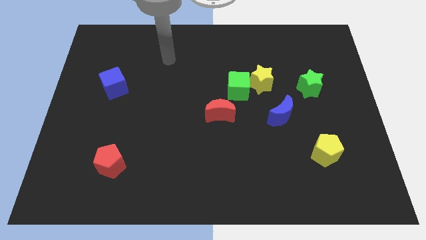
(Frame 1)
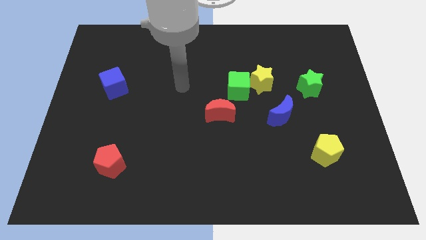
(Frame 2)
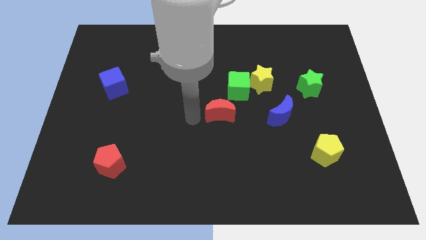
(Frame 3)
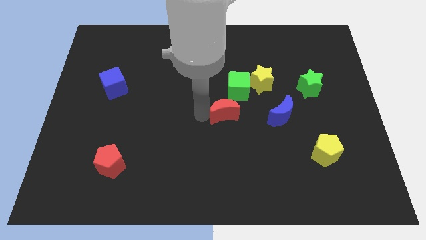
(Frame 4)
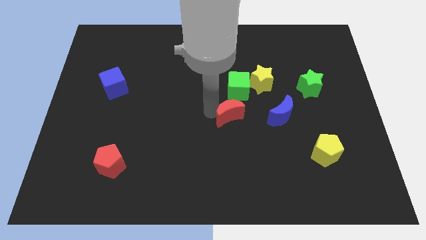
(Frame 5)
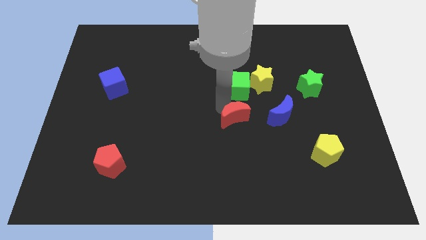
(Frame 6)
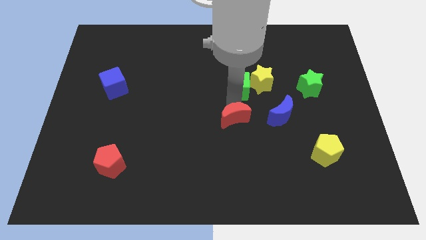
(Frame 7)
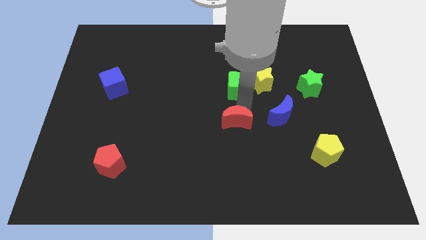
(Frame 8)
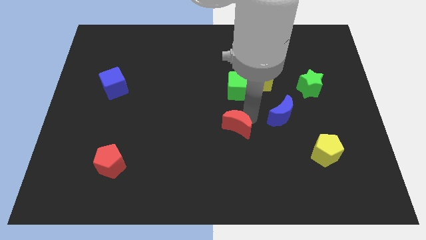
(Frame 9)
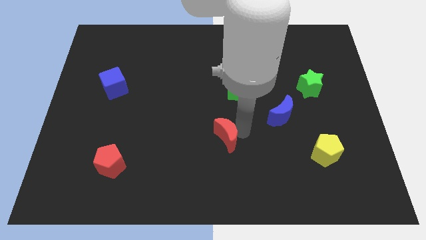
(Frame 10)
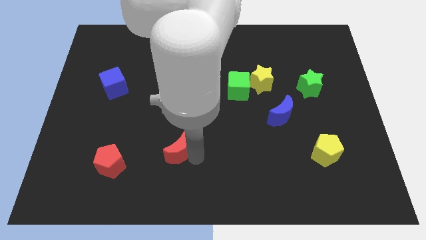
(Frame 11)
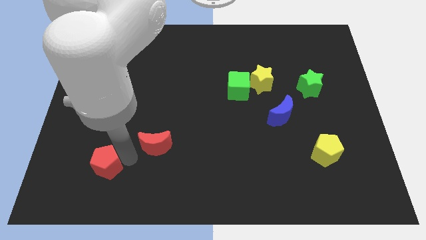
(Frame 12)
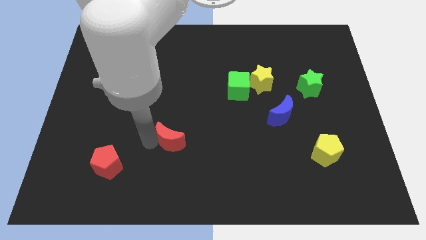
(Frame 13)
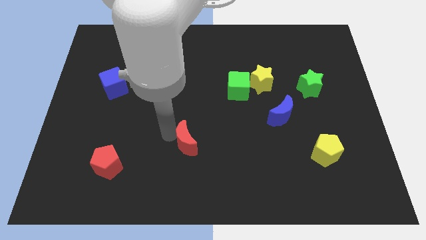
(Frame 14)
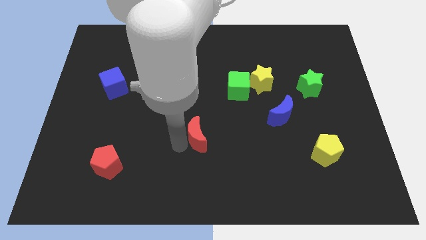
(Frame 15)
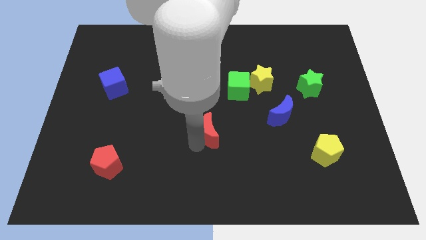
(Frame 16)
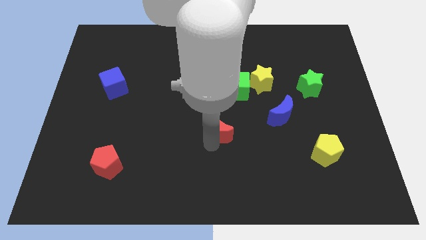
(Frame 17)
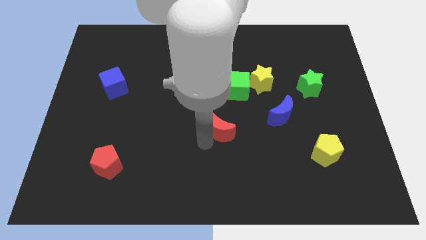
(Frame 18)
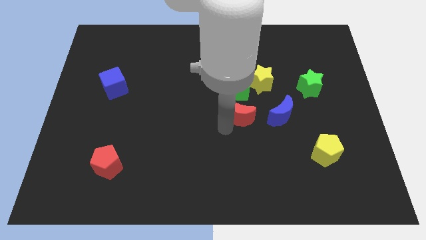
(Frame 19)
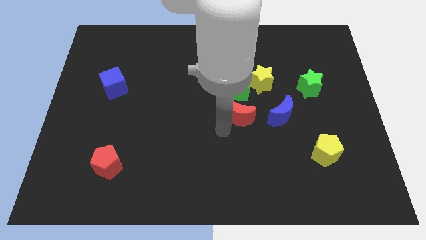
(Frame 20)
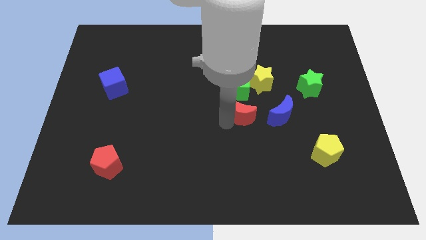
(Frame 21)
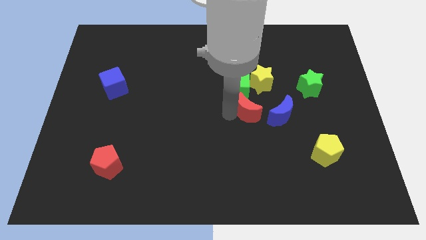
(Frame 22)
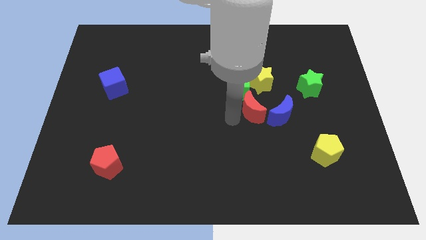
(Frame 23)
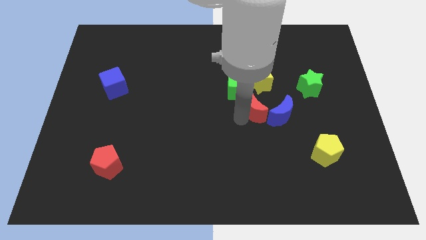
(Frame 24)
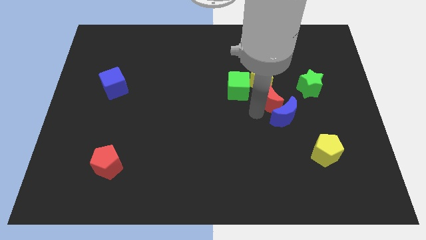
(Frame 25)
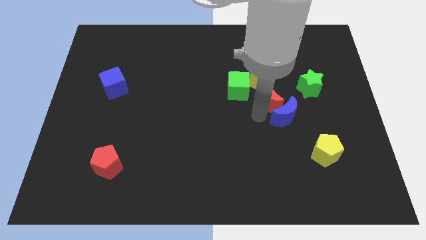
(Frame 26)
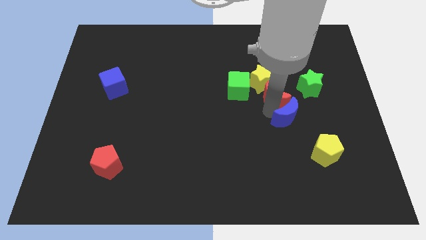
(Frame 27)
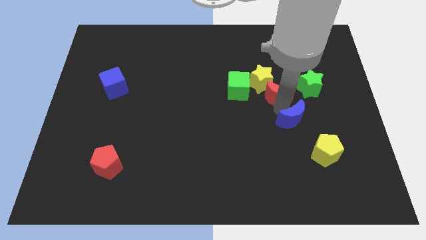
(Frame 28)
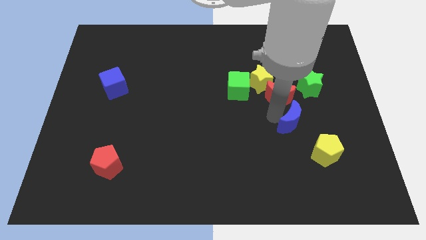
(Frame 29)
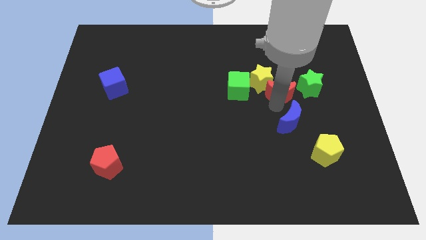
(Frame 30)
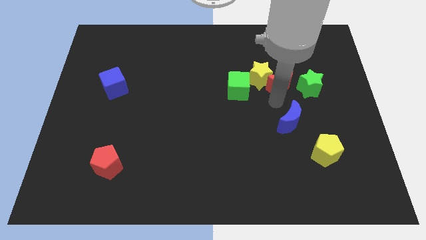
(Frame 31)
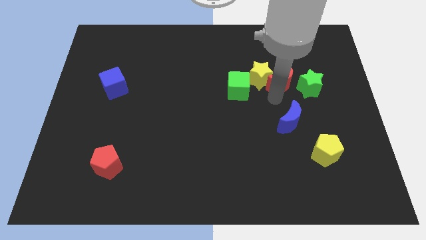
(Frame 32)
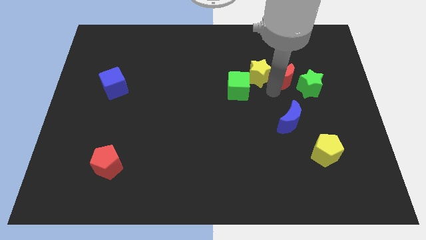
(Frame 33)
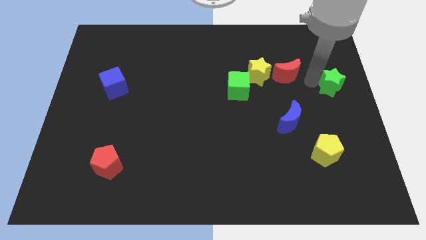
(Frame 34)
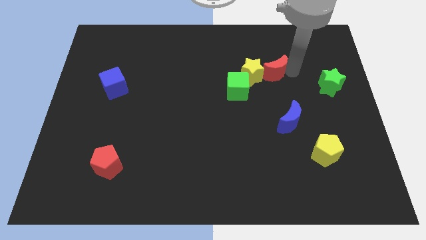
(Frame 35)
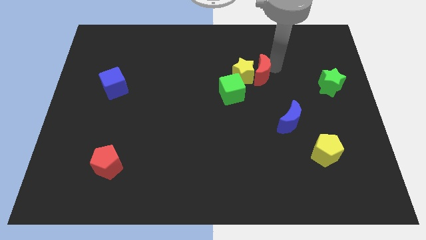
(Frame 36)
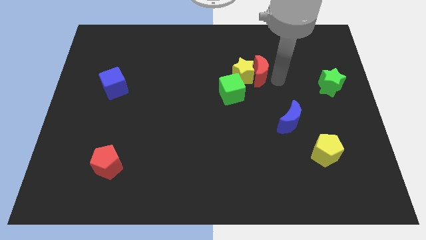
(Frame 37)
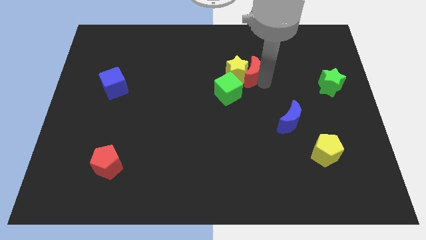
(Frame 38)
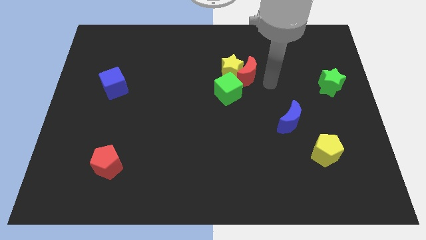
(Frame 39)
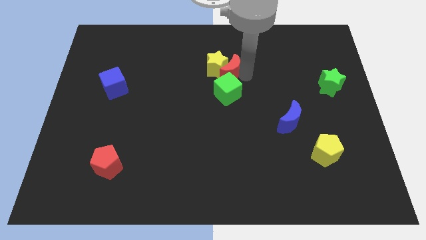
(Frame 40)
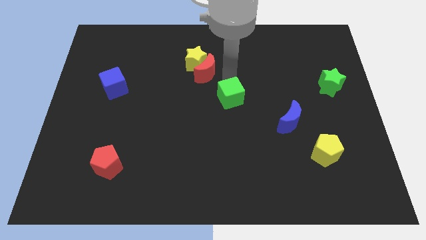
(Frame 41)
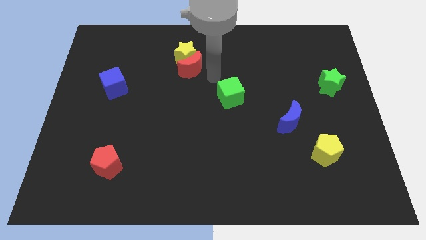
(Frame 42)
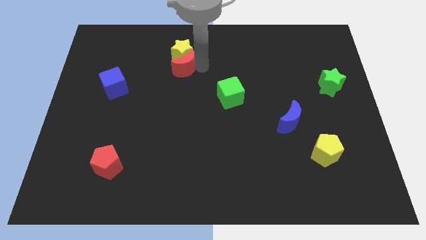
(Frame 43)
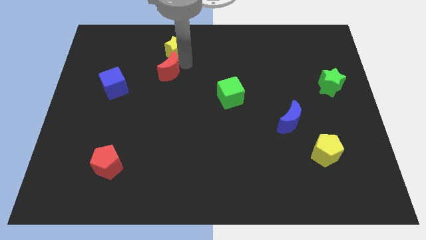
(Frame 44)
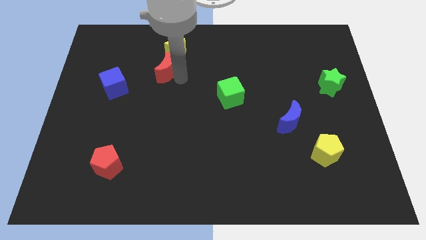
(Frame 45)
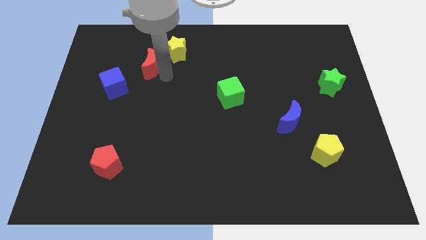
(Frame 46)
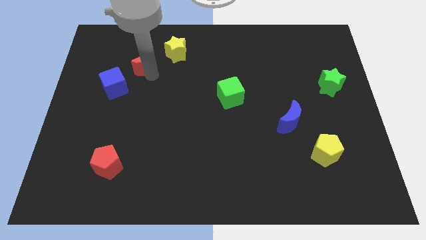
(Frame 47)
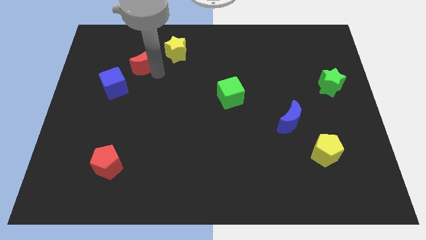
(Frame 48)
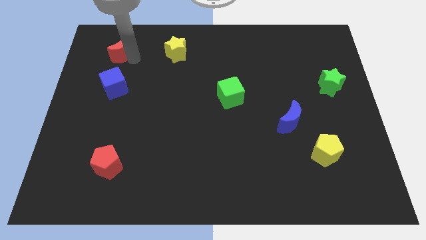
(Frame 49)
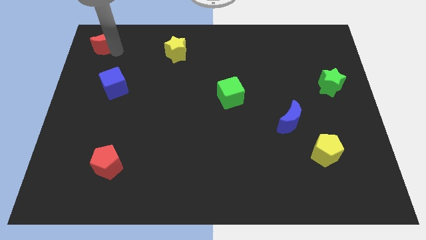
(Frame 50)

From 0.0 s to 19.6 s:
put the red moon to the top left

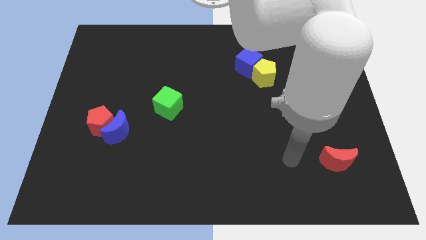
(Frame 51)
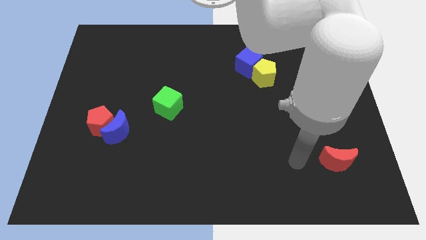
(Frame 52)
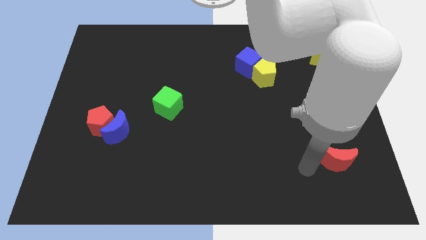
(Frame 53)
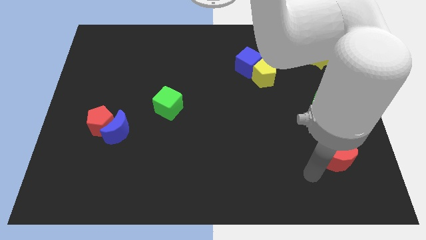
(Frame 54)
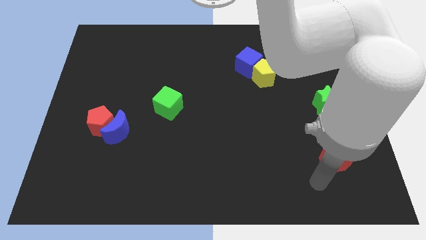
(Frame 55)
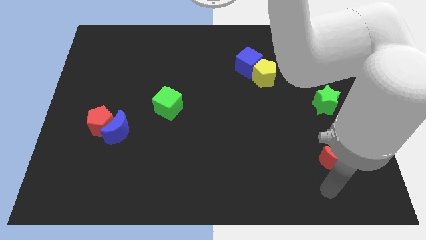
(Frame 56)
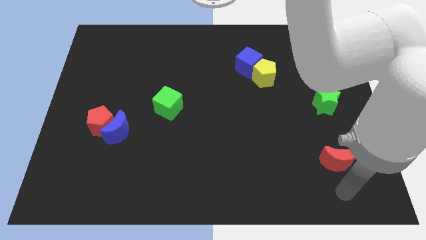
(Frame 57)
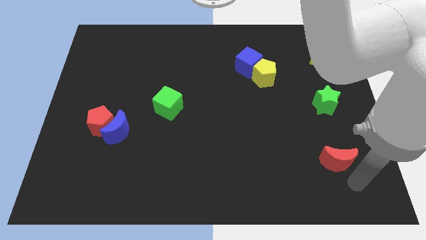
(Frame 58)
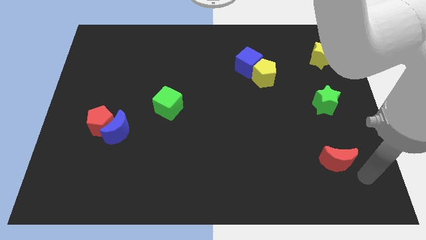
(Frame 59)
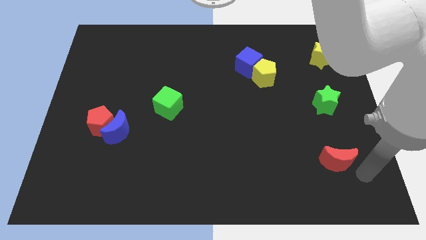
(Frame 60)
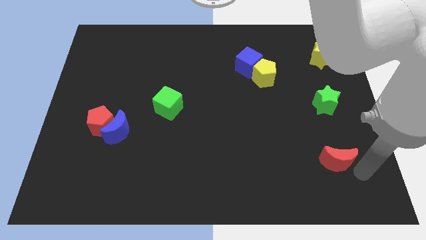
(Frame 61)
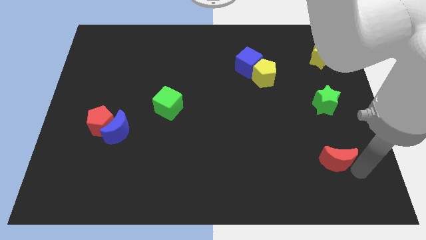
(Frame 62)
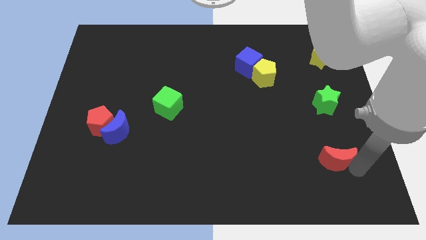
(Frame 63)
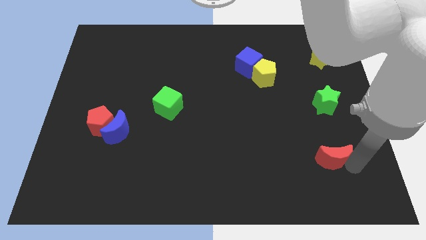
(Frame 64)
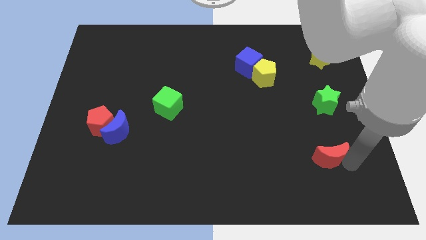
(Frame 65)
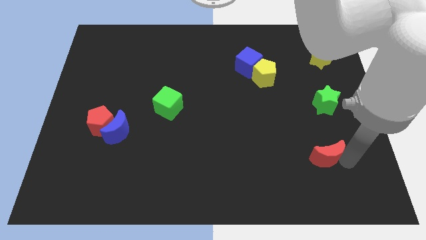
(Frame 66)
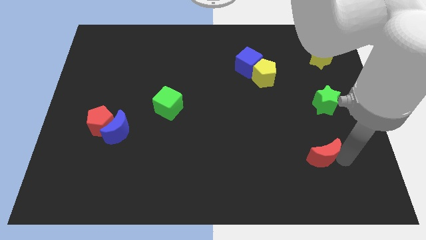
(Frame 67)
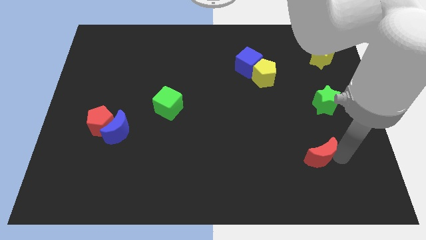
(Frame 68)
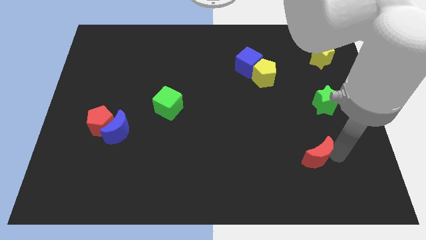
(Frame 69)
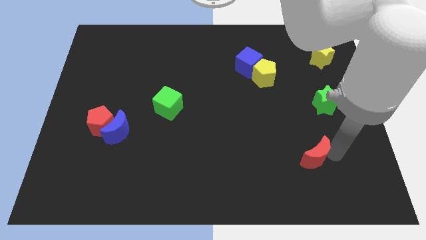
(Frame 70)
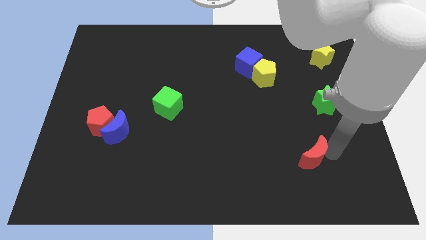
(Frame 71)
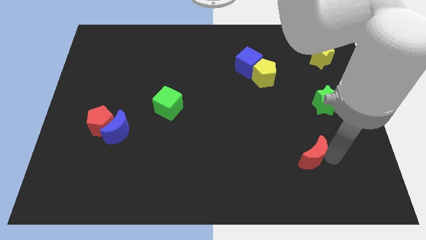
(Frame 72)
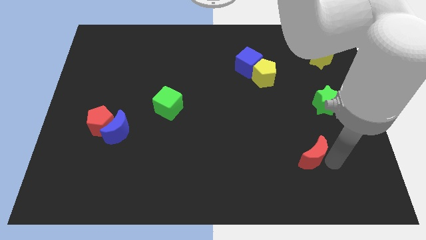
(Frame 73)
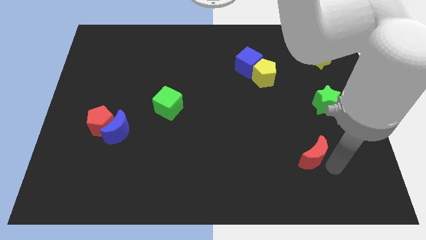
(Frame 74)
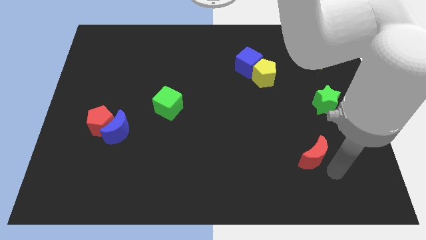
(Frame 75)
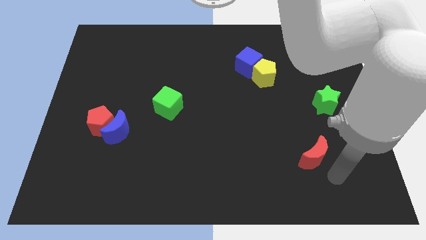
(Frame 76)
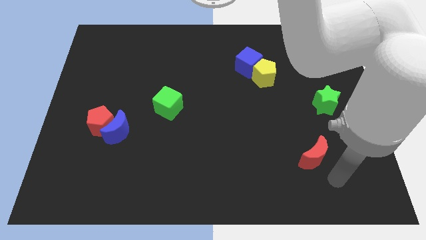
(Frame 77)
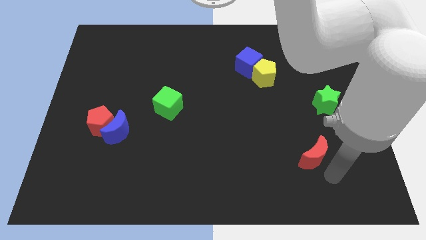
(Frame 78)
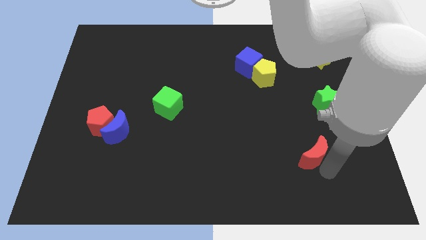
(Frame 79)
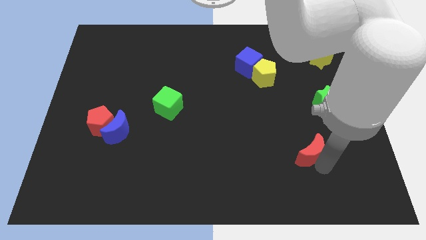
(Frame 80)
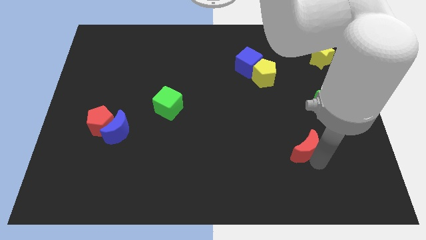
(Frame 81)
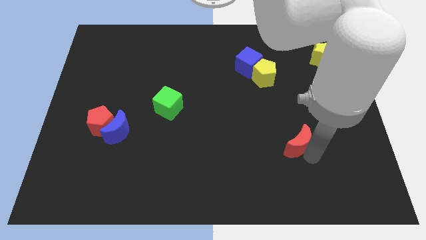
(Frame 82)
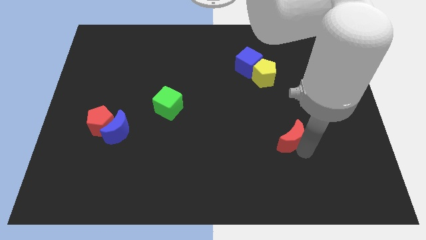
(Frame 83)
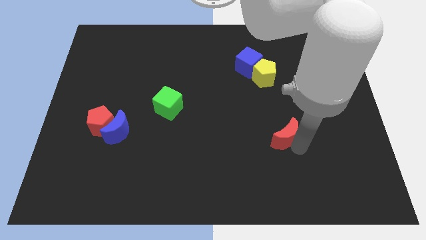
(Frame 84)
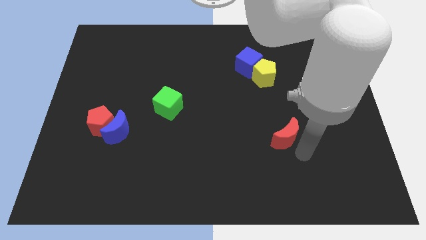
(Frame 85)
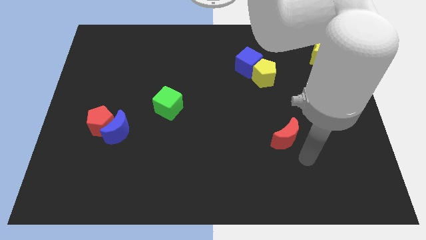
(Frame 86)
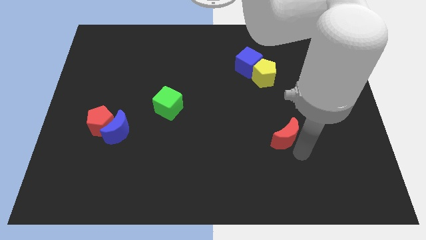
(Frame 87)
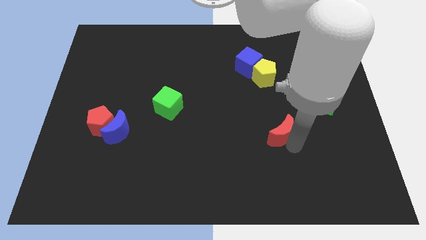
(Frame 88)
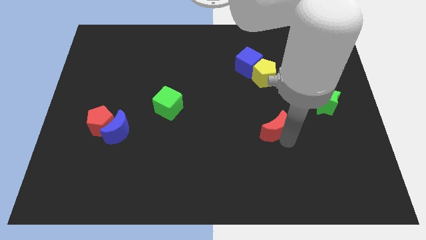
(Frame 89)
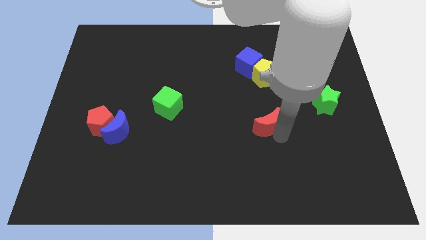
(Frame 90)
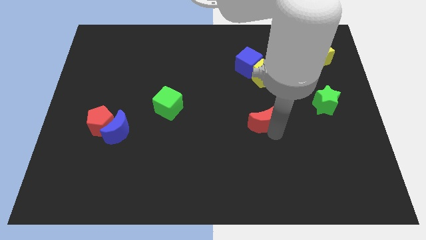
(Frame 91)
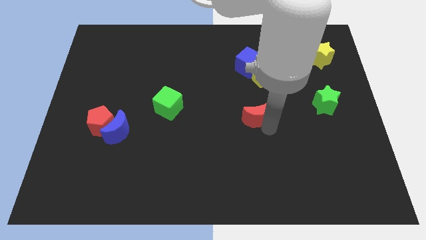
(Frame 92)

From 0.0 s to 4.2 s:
push the red moon to the middle of the board
